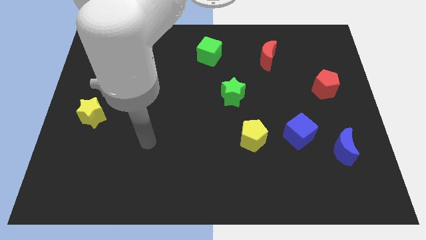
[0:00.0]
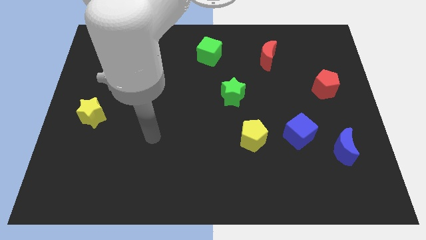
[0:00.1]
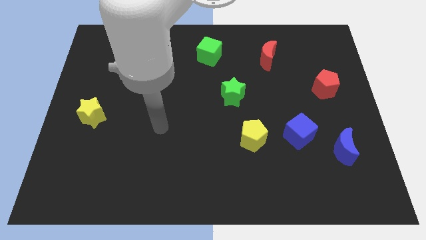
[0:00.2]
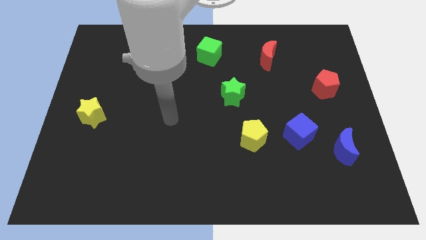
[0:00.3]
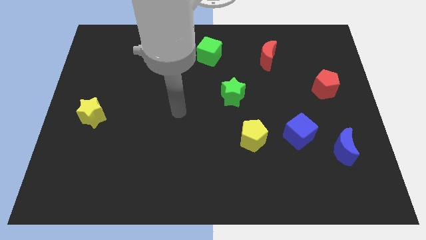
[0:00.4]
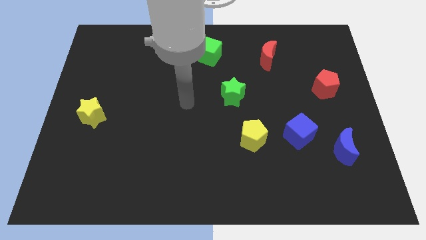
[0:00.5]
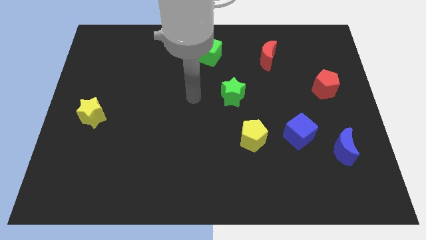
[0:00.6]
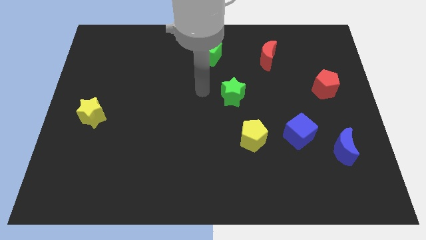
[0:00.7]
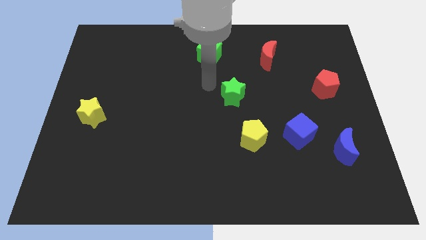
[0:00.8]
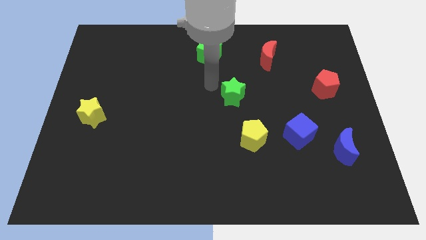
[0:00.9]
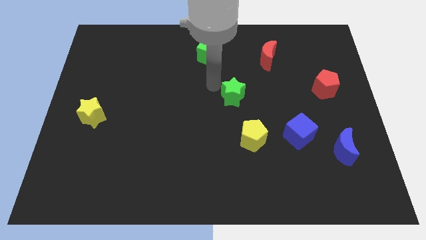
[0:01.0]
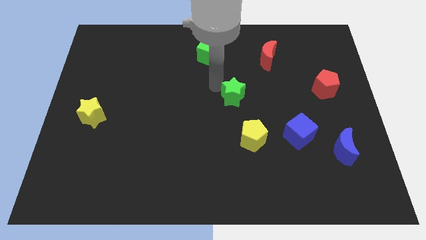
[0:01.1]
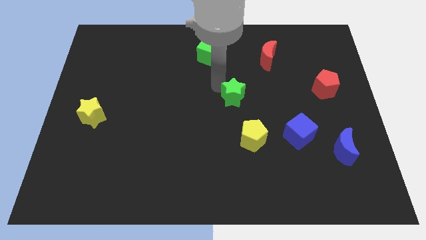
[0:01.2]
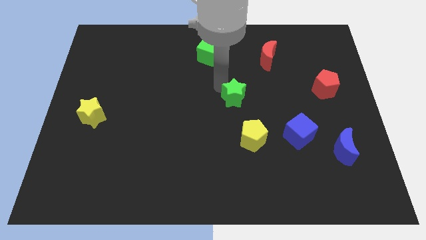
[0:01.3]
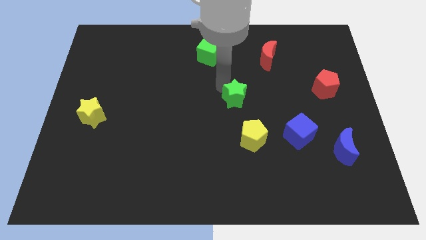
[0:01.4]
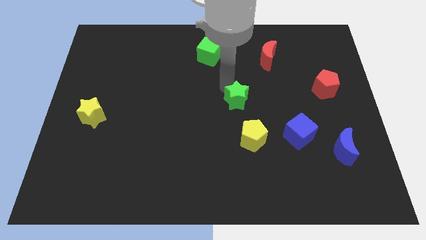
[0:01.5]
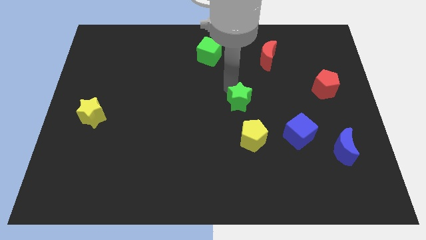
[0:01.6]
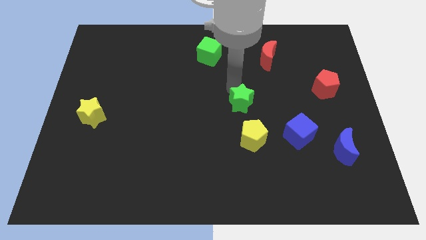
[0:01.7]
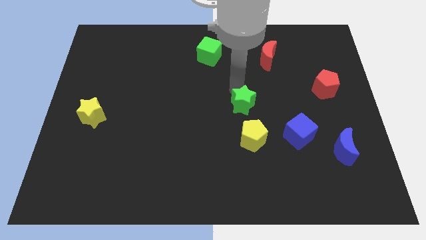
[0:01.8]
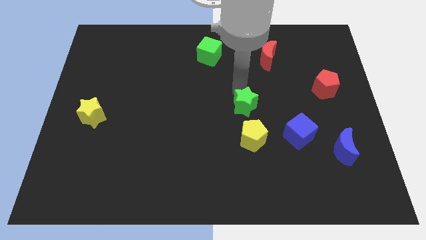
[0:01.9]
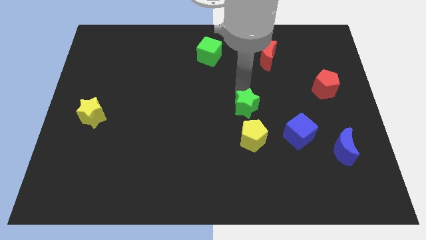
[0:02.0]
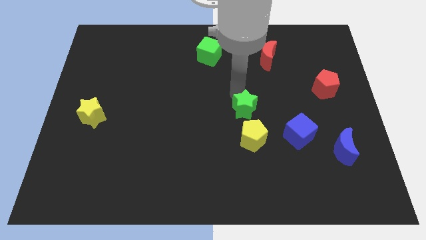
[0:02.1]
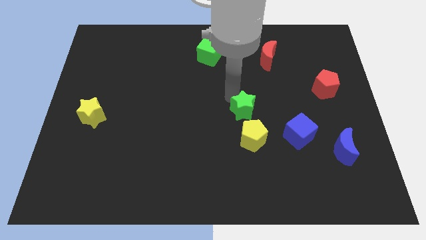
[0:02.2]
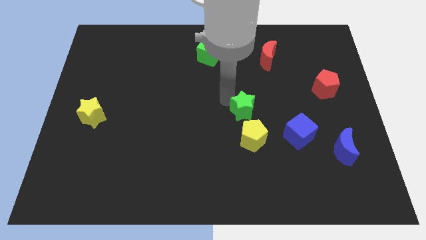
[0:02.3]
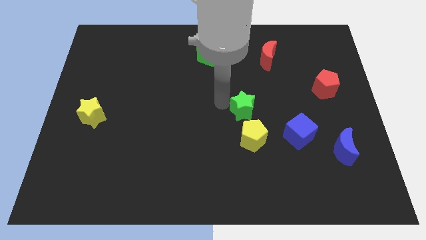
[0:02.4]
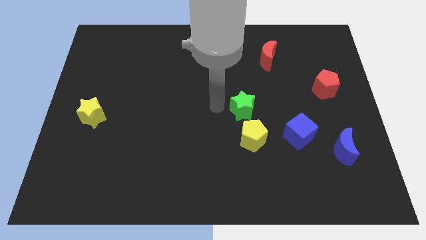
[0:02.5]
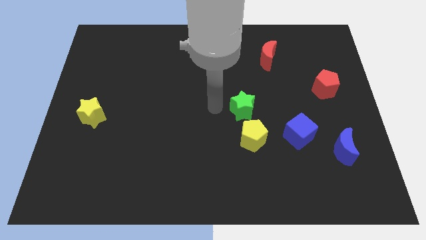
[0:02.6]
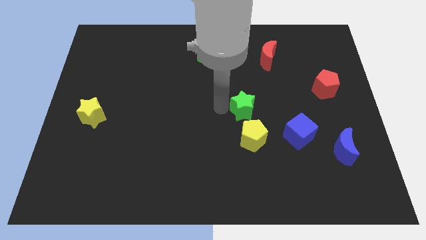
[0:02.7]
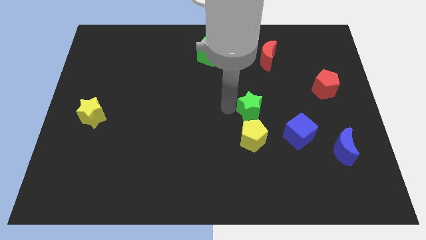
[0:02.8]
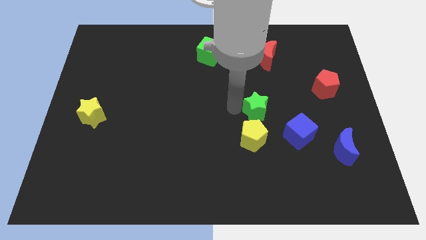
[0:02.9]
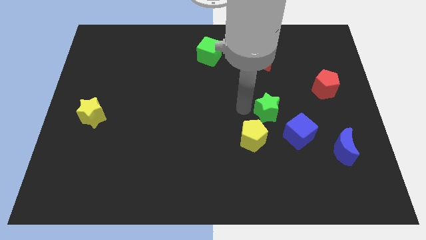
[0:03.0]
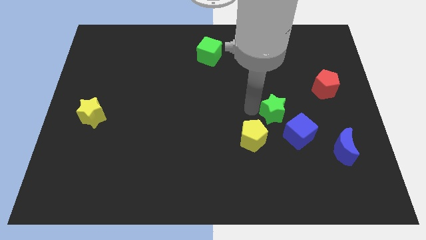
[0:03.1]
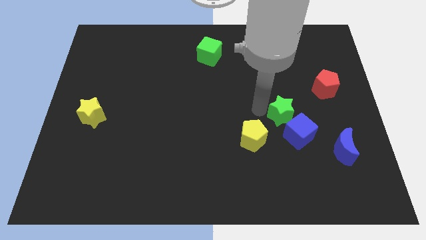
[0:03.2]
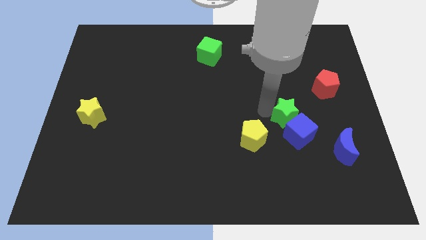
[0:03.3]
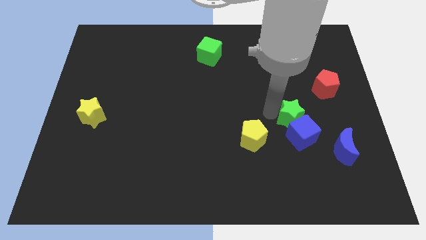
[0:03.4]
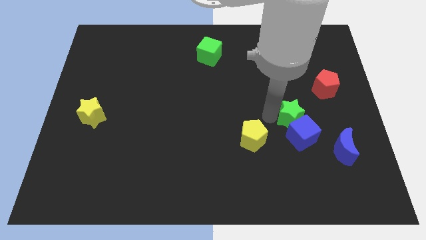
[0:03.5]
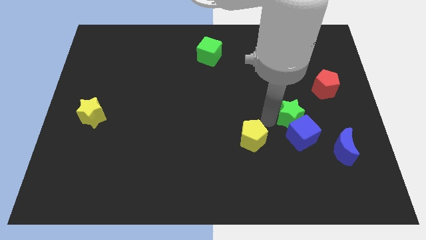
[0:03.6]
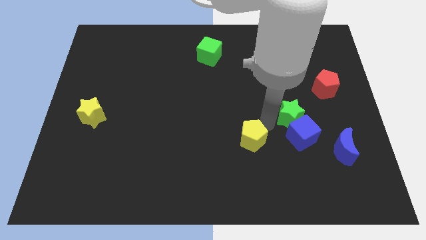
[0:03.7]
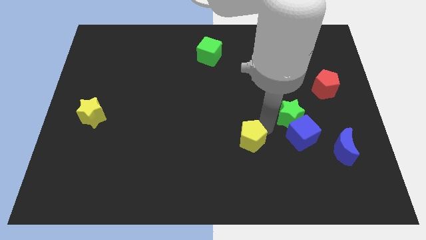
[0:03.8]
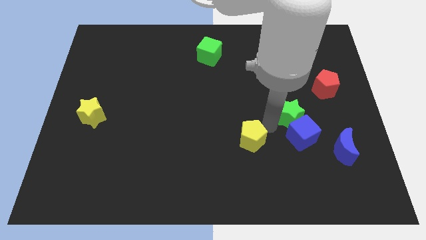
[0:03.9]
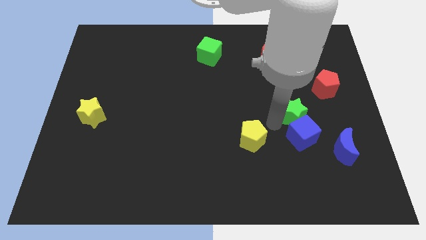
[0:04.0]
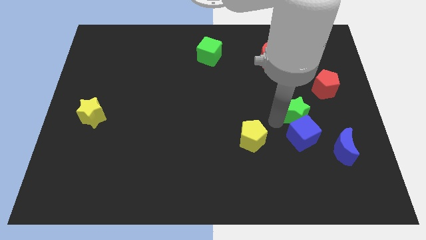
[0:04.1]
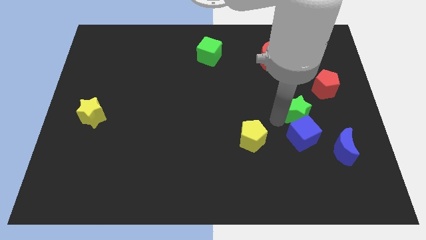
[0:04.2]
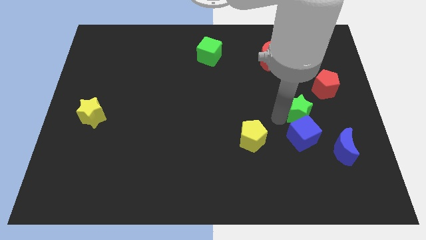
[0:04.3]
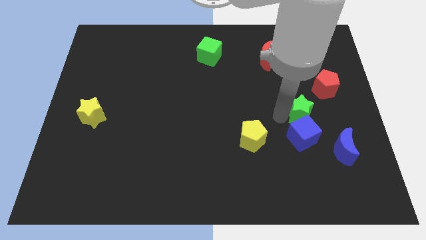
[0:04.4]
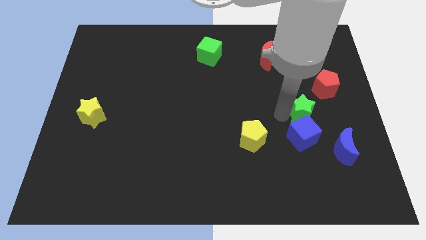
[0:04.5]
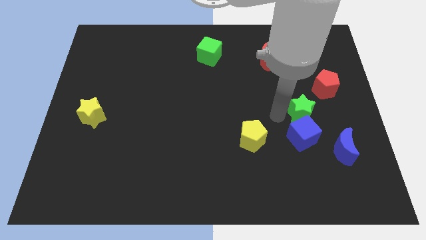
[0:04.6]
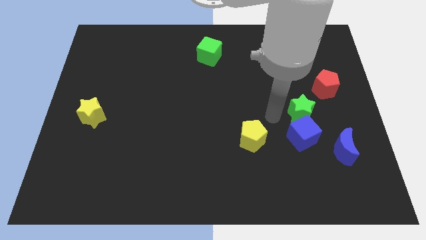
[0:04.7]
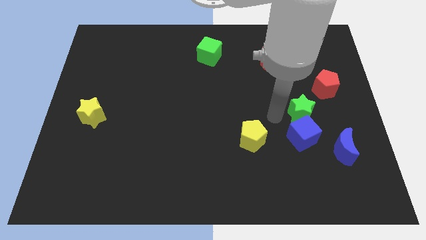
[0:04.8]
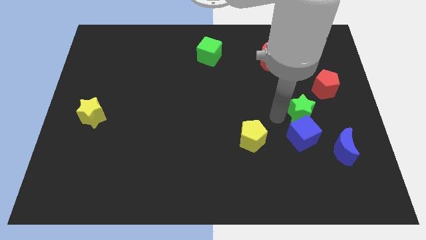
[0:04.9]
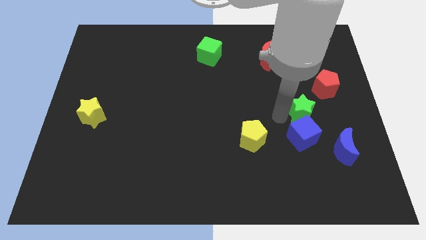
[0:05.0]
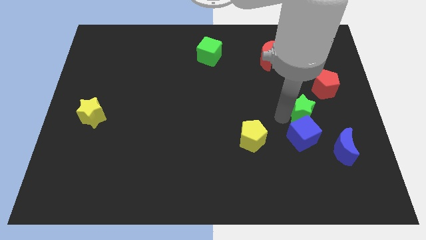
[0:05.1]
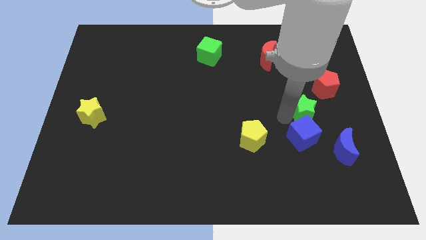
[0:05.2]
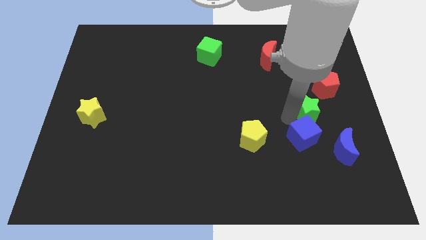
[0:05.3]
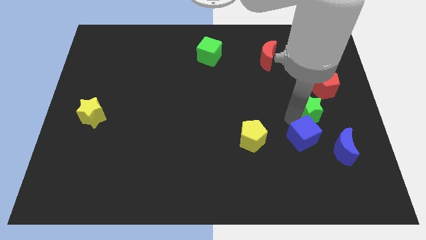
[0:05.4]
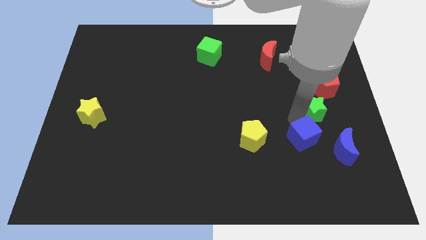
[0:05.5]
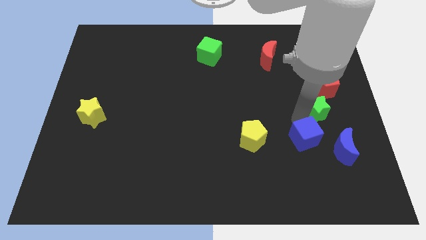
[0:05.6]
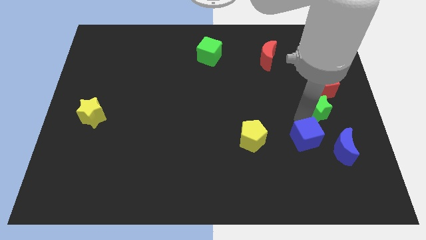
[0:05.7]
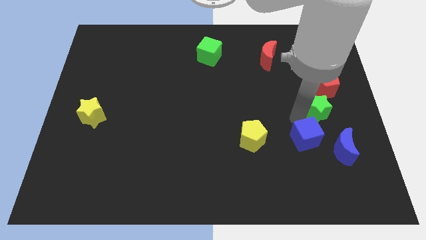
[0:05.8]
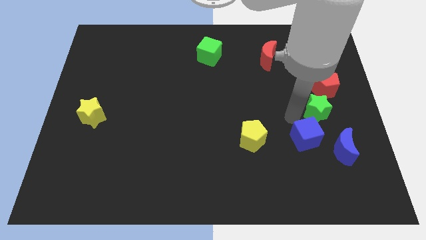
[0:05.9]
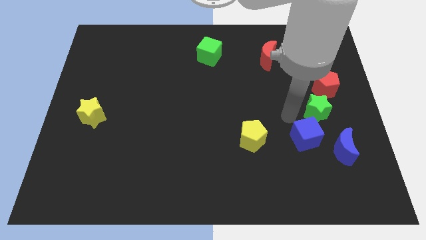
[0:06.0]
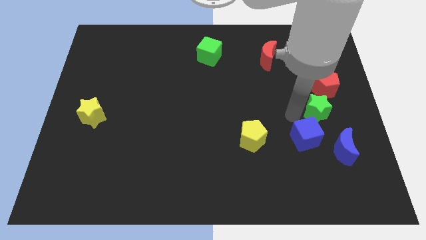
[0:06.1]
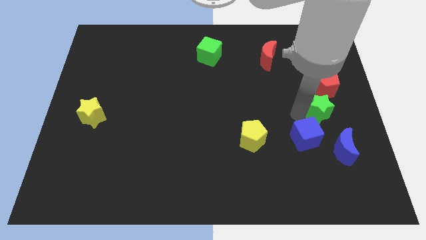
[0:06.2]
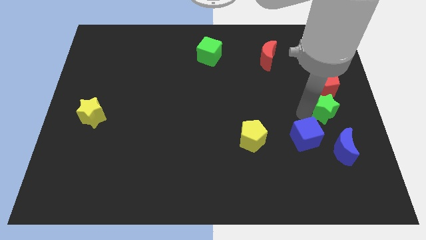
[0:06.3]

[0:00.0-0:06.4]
push the green star to the center right

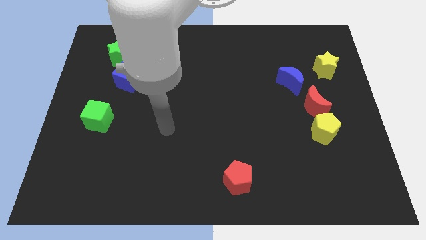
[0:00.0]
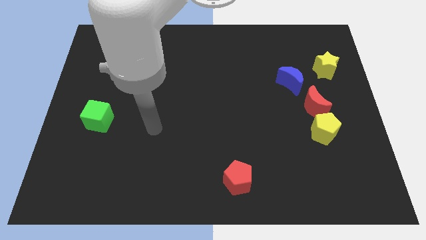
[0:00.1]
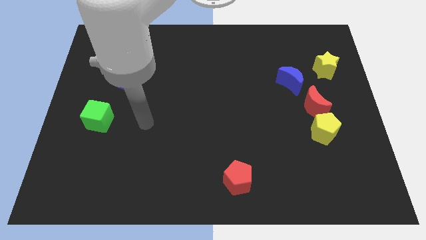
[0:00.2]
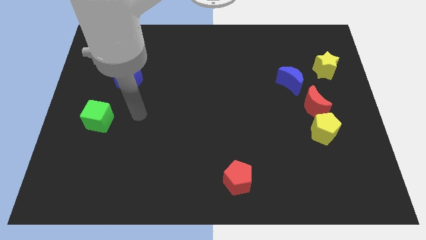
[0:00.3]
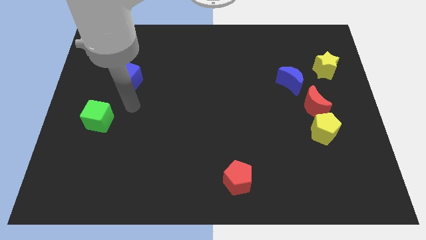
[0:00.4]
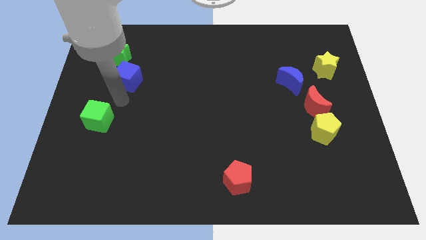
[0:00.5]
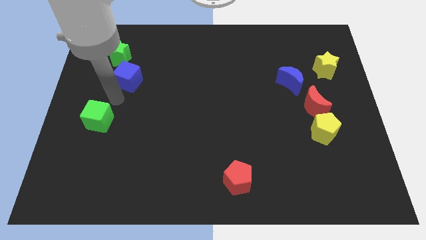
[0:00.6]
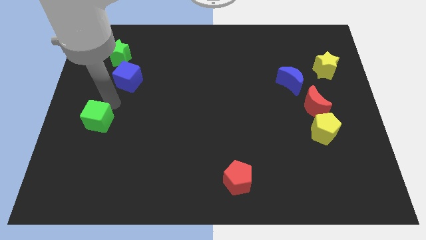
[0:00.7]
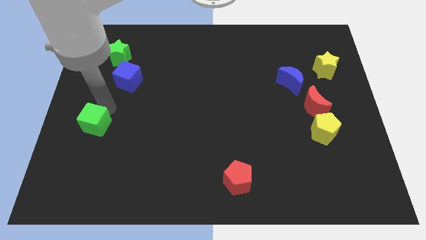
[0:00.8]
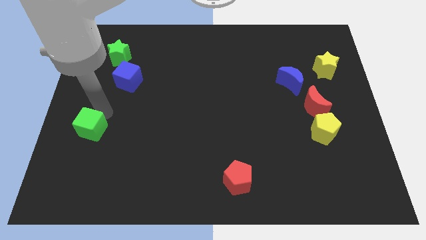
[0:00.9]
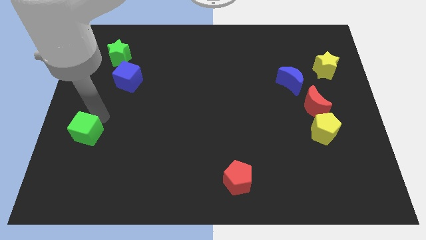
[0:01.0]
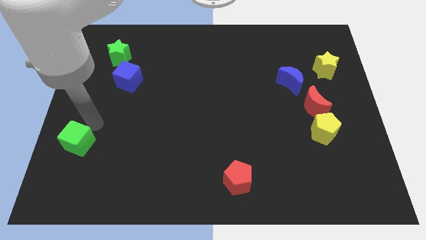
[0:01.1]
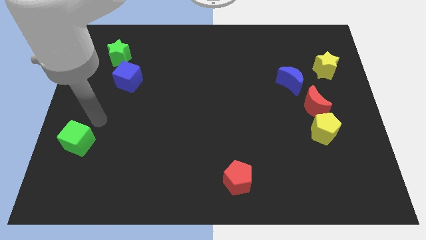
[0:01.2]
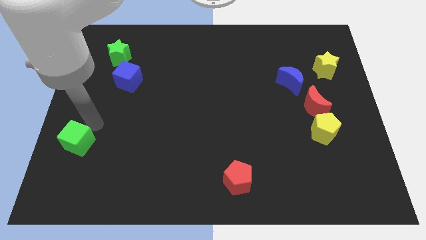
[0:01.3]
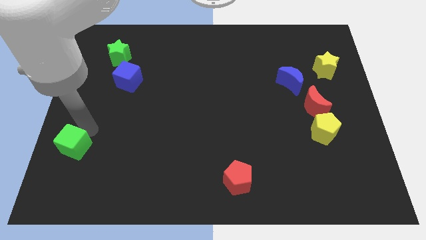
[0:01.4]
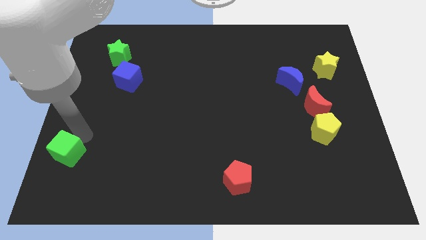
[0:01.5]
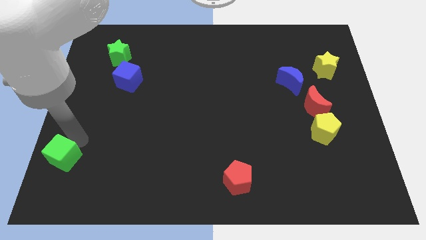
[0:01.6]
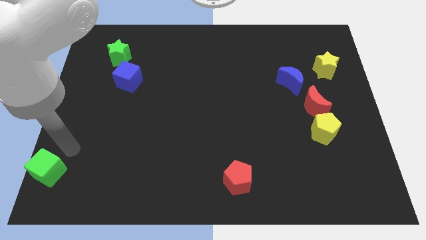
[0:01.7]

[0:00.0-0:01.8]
put the green cube to the bottom left
